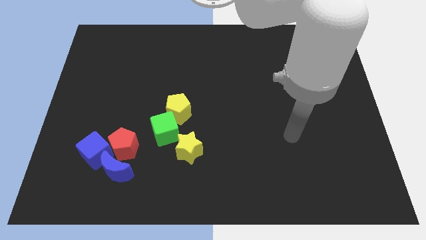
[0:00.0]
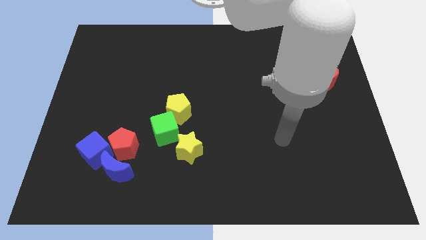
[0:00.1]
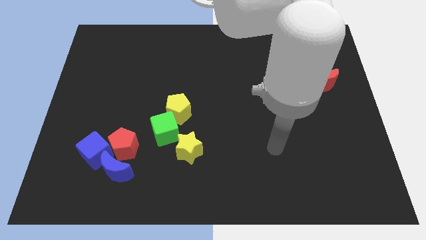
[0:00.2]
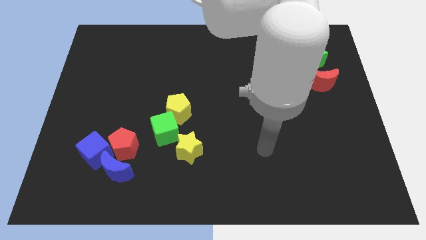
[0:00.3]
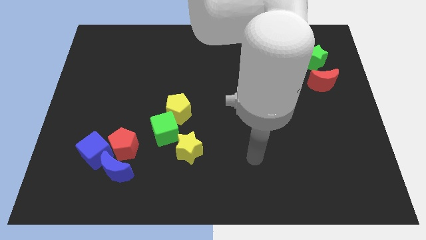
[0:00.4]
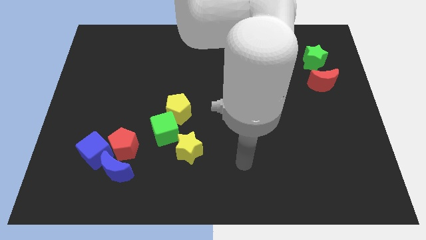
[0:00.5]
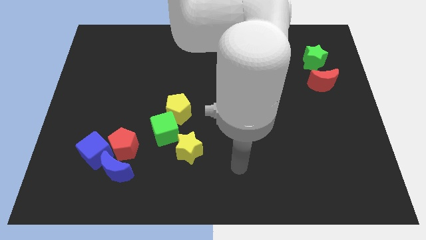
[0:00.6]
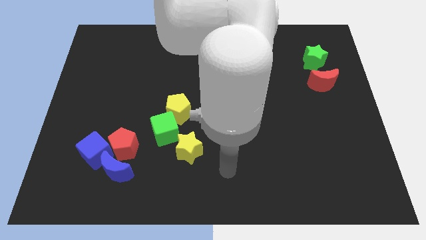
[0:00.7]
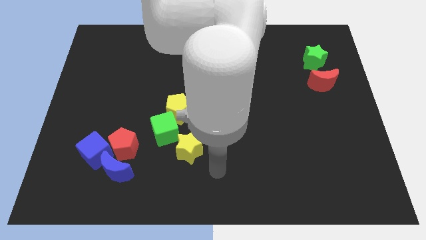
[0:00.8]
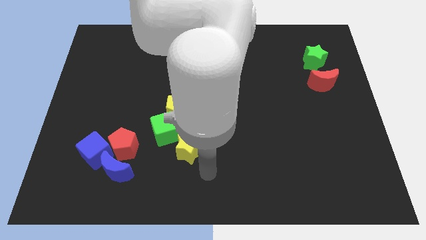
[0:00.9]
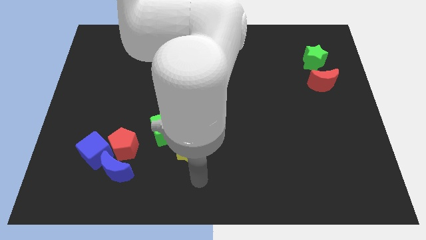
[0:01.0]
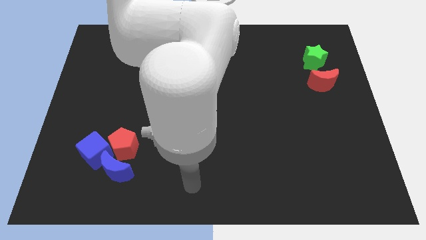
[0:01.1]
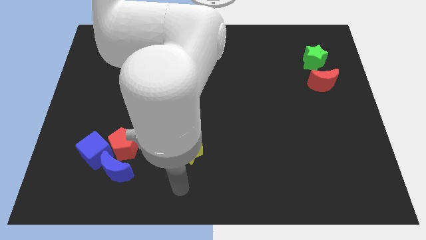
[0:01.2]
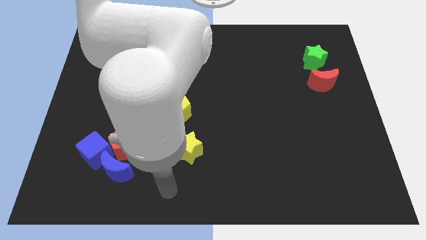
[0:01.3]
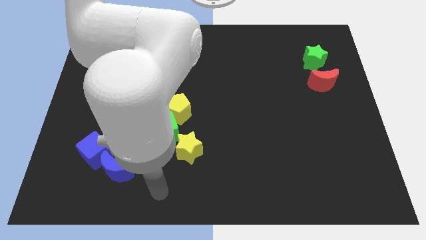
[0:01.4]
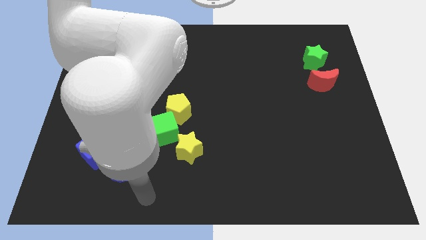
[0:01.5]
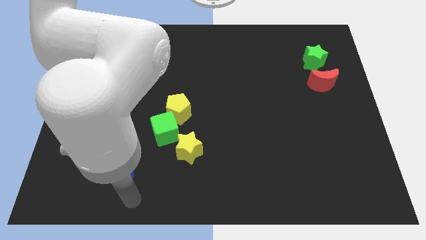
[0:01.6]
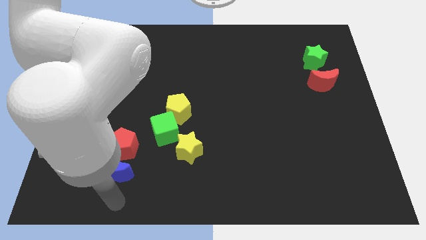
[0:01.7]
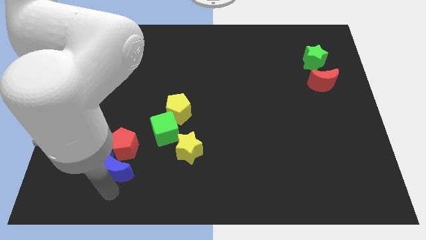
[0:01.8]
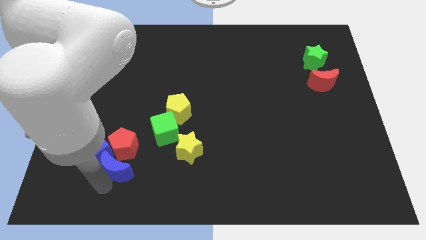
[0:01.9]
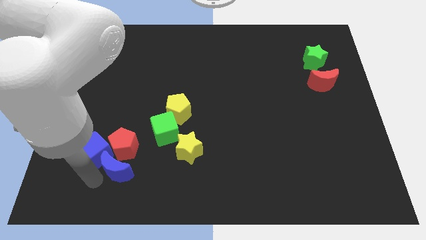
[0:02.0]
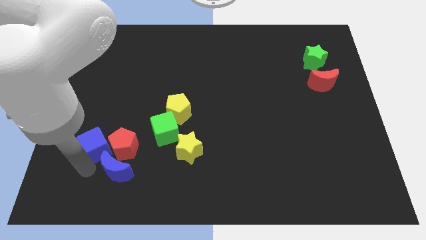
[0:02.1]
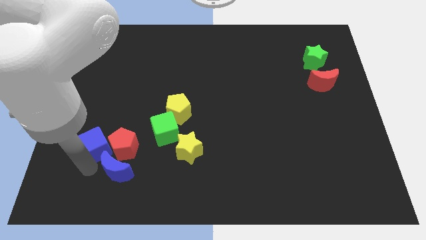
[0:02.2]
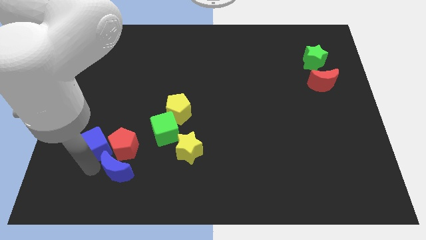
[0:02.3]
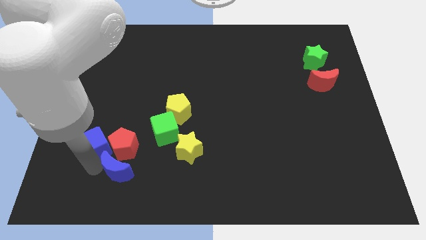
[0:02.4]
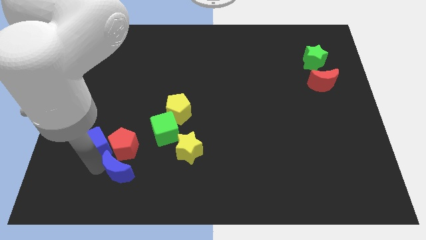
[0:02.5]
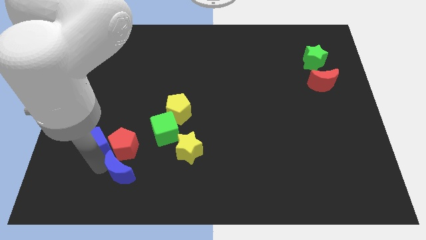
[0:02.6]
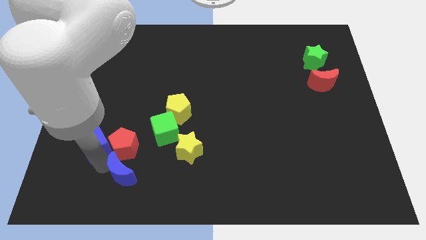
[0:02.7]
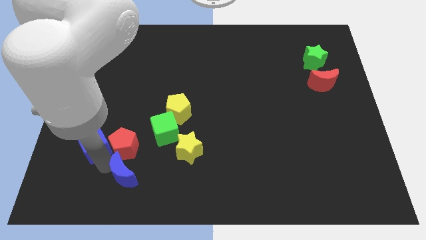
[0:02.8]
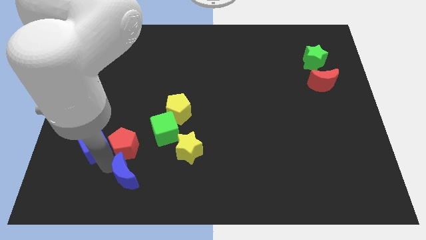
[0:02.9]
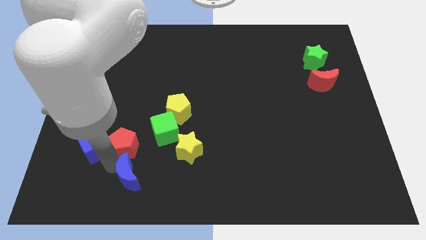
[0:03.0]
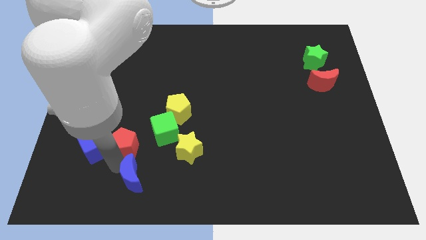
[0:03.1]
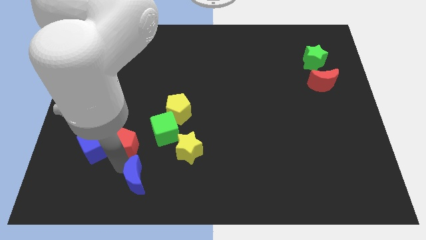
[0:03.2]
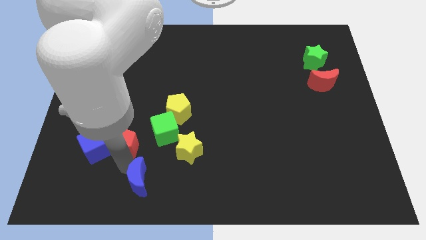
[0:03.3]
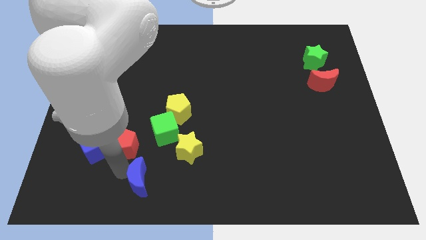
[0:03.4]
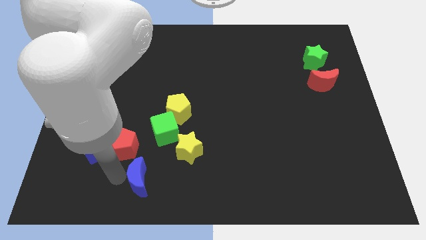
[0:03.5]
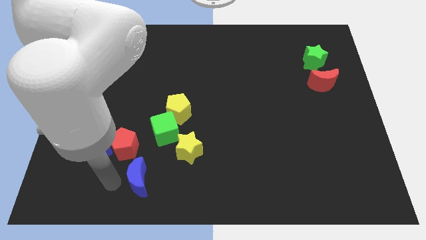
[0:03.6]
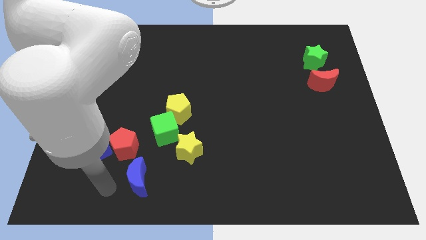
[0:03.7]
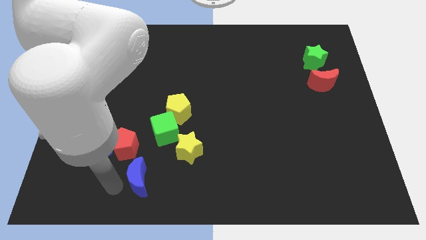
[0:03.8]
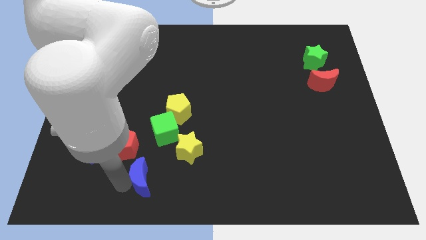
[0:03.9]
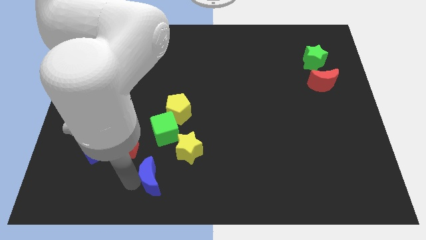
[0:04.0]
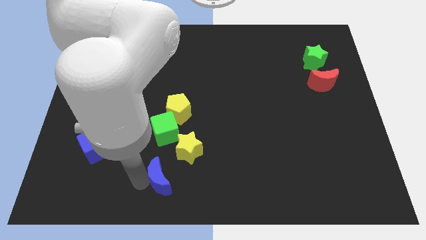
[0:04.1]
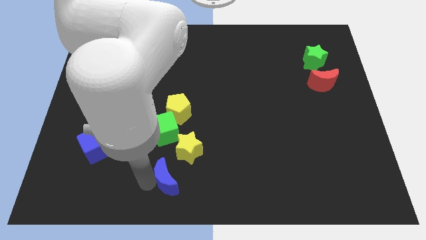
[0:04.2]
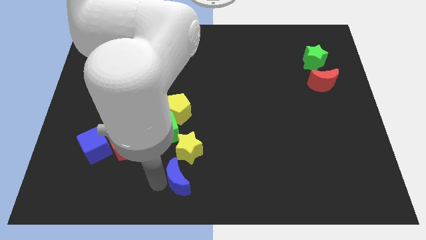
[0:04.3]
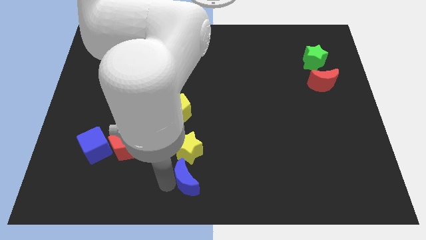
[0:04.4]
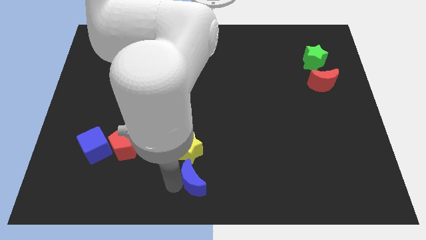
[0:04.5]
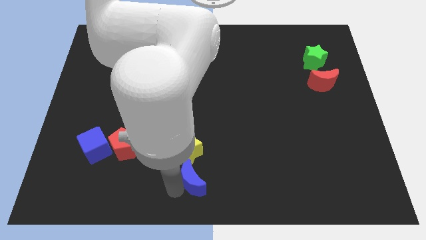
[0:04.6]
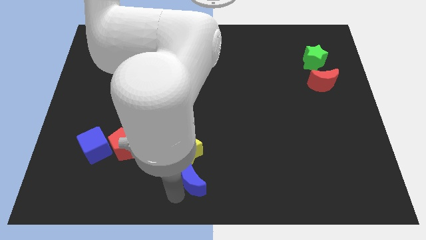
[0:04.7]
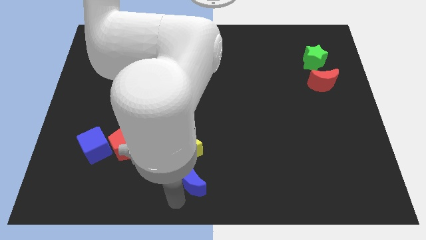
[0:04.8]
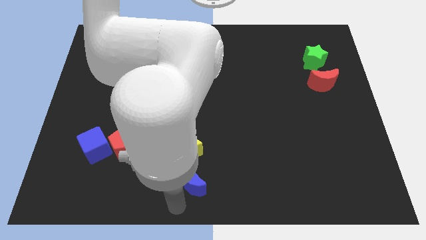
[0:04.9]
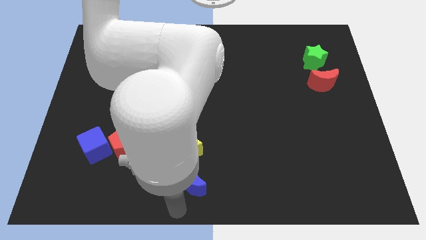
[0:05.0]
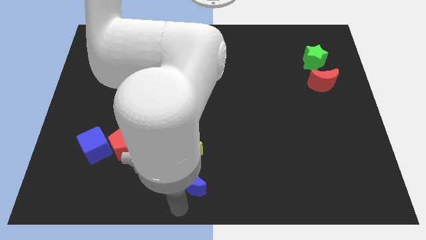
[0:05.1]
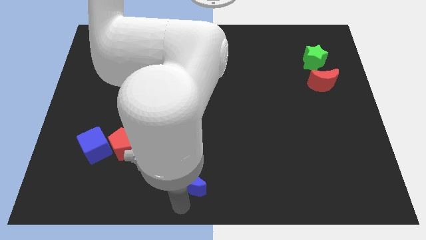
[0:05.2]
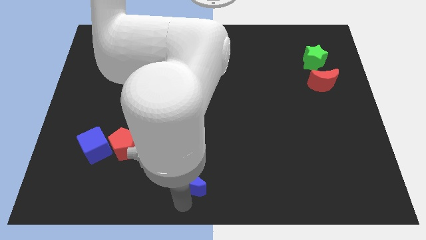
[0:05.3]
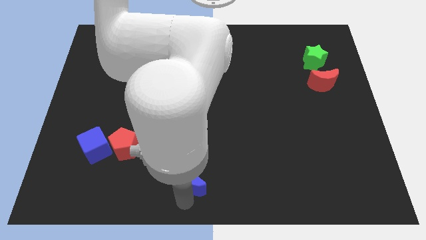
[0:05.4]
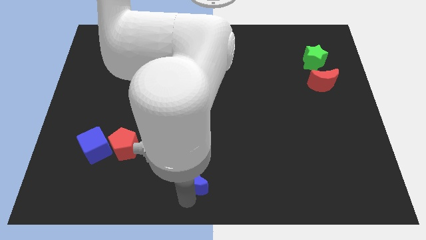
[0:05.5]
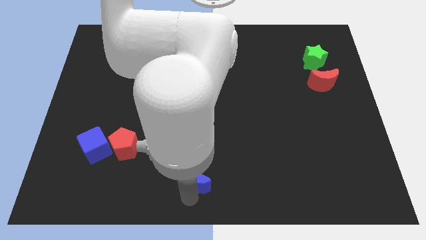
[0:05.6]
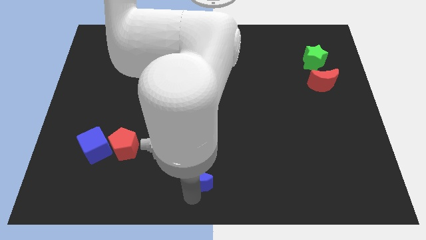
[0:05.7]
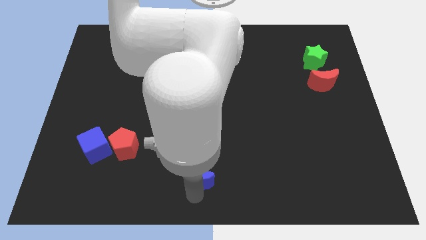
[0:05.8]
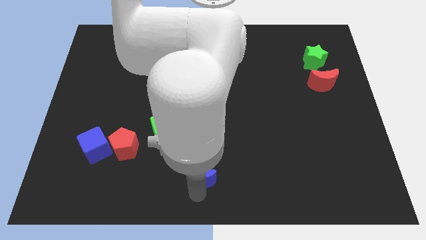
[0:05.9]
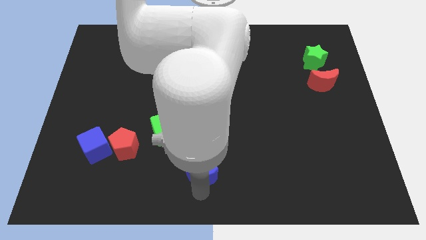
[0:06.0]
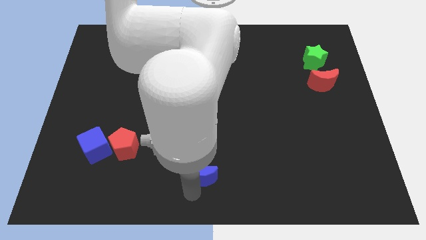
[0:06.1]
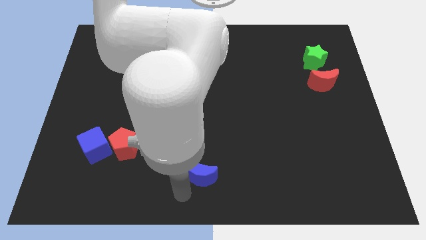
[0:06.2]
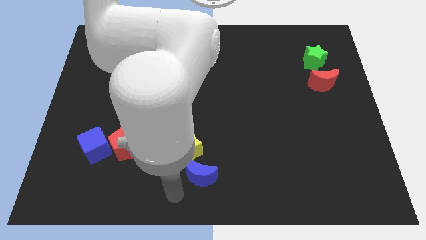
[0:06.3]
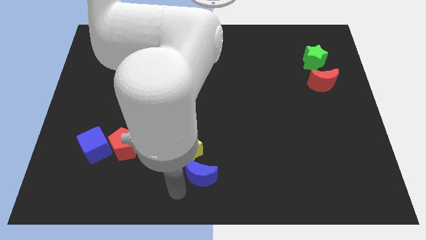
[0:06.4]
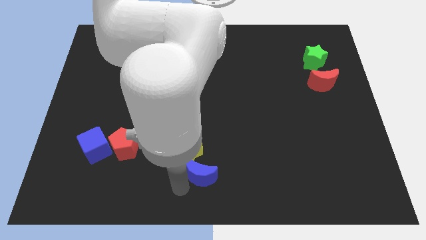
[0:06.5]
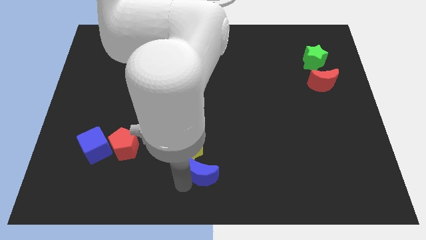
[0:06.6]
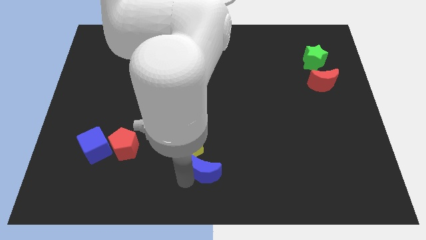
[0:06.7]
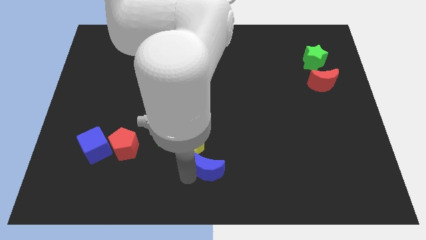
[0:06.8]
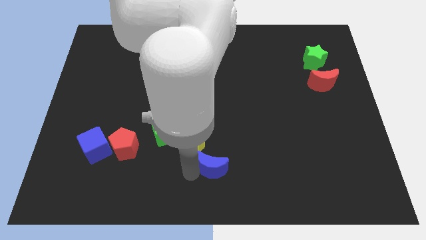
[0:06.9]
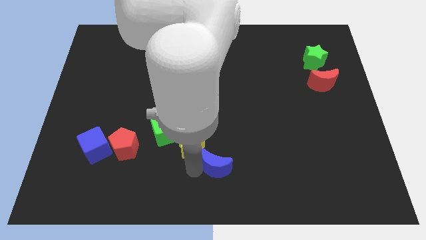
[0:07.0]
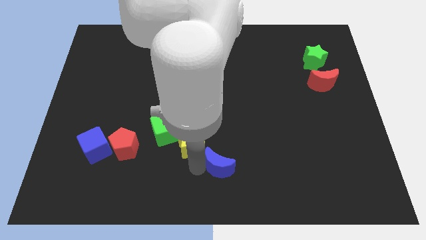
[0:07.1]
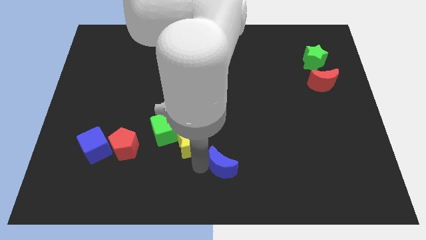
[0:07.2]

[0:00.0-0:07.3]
put the blue moon to the right side of the yellow star

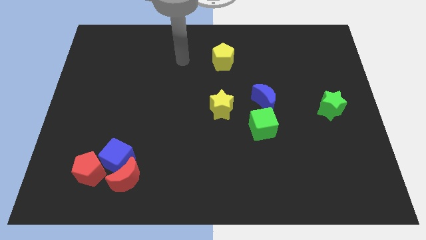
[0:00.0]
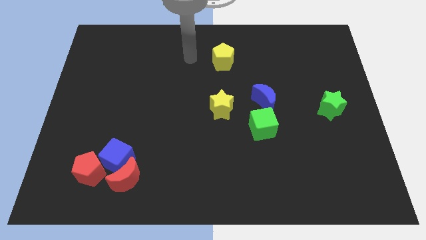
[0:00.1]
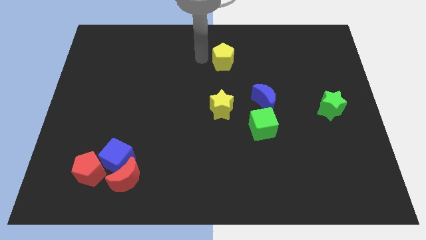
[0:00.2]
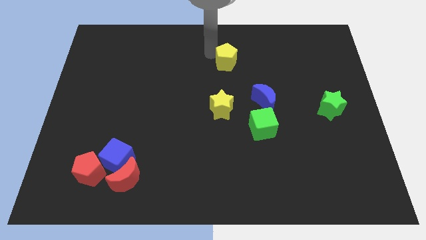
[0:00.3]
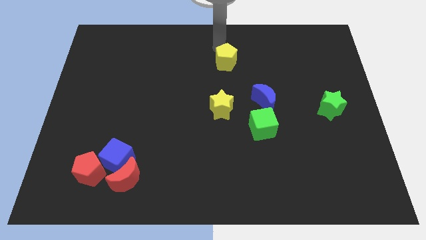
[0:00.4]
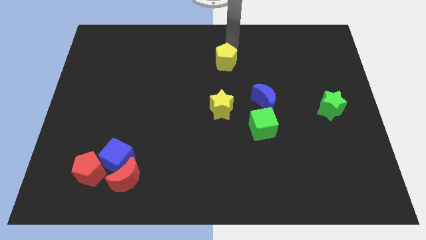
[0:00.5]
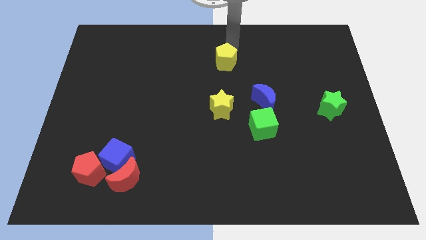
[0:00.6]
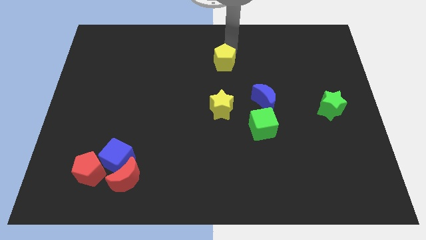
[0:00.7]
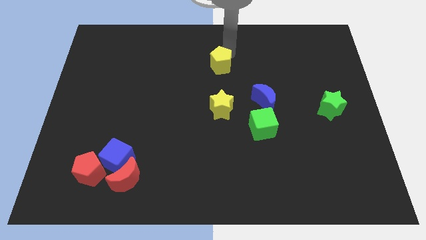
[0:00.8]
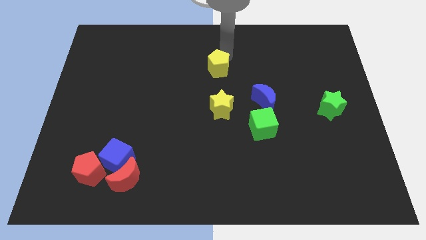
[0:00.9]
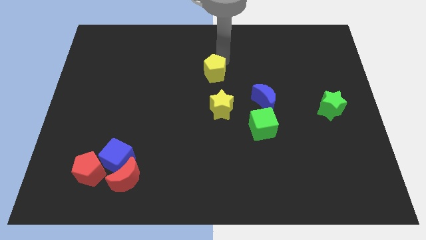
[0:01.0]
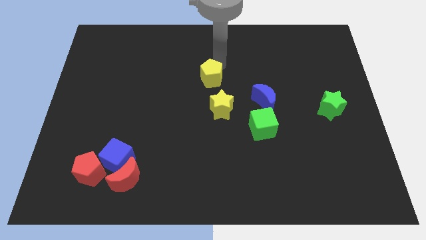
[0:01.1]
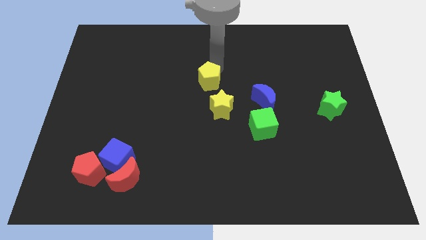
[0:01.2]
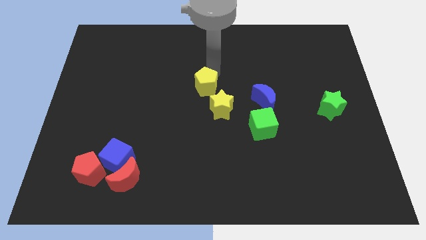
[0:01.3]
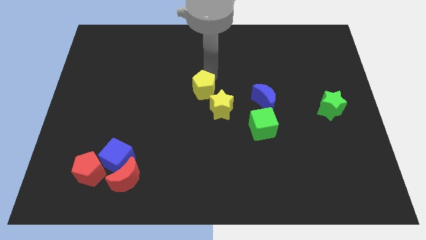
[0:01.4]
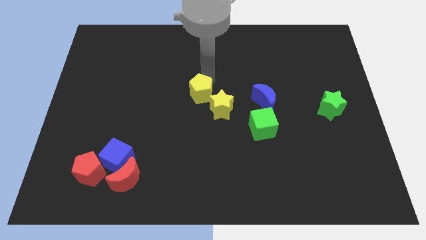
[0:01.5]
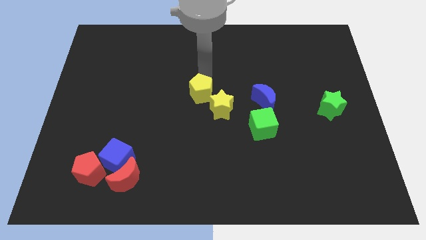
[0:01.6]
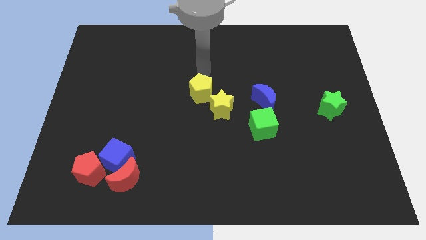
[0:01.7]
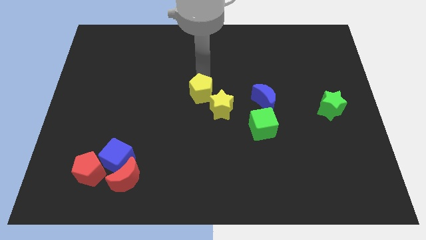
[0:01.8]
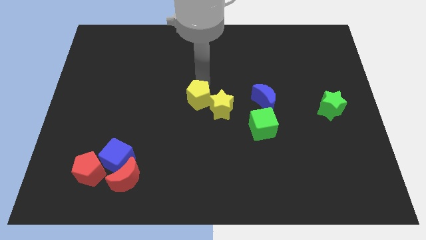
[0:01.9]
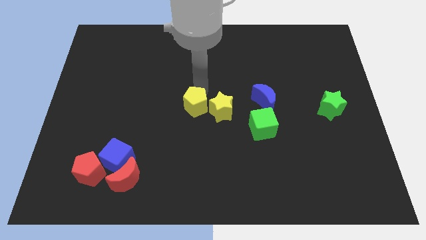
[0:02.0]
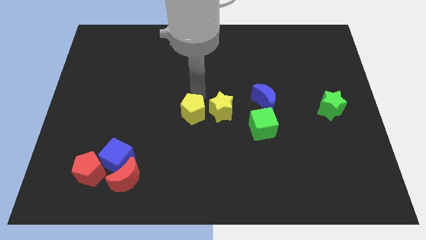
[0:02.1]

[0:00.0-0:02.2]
put the yellow pentagon diagonally down and to the left of the yellow star
